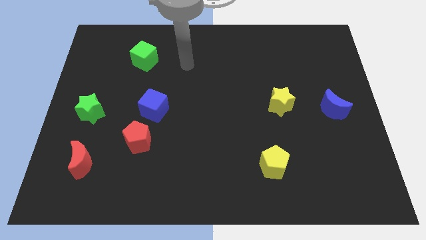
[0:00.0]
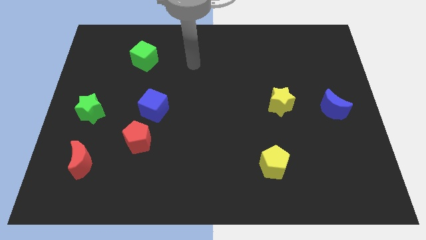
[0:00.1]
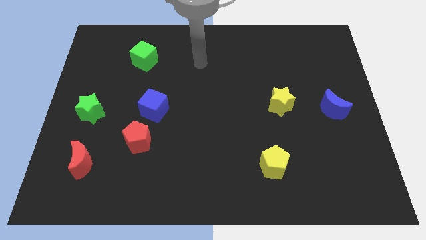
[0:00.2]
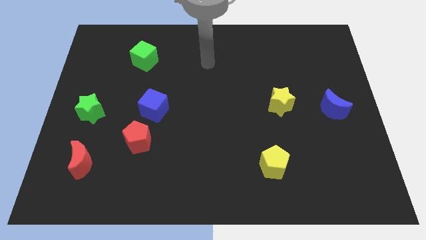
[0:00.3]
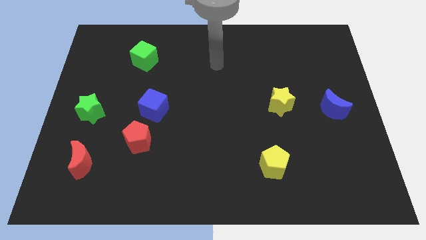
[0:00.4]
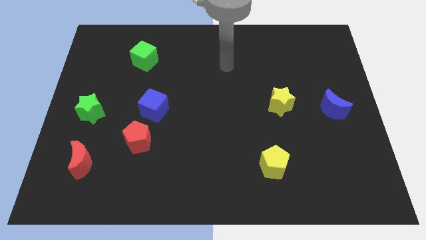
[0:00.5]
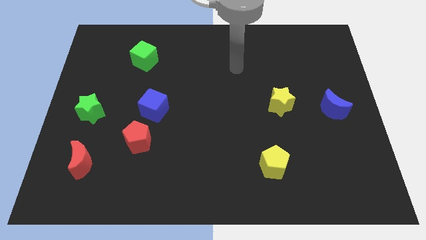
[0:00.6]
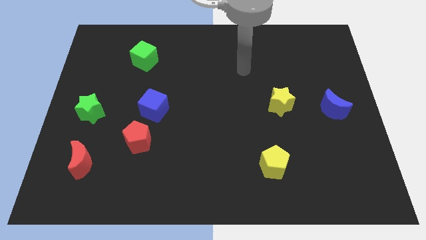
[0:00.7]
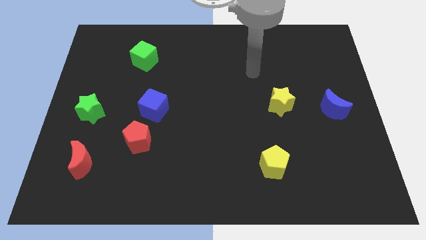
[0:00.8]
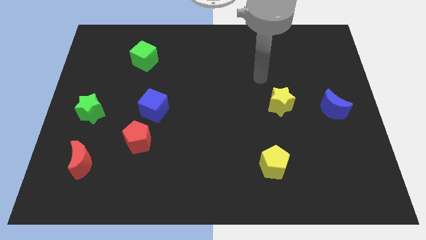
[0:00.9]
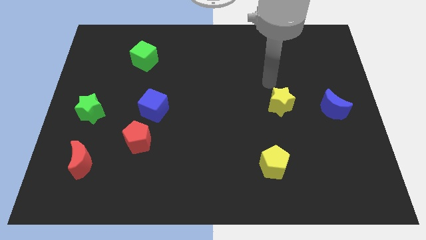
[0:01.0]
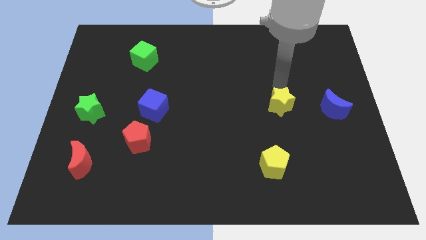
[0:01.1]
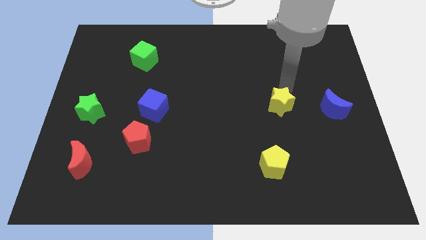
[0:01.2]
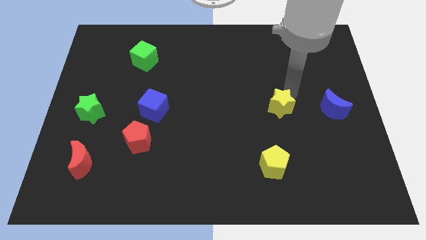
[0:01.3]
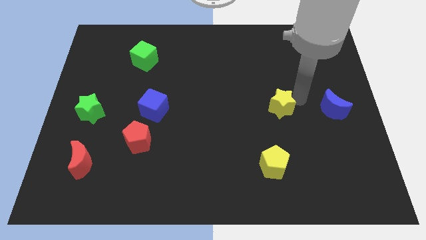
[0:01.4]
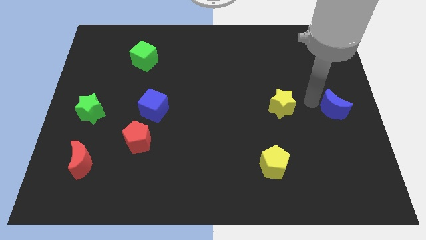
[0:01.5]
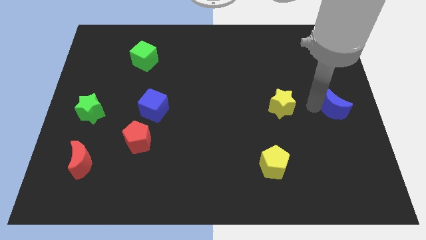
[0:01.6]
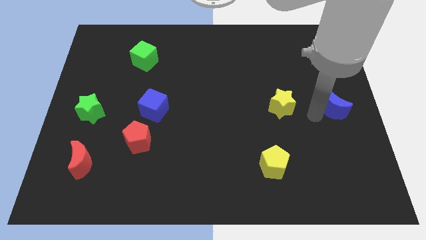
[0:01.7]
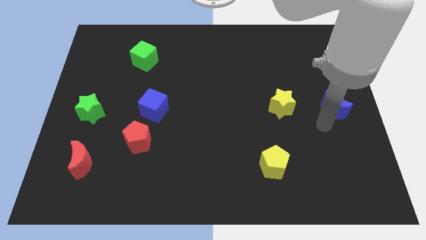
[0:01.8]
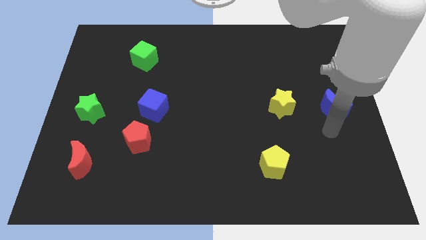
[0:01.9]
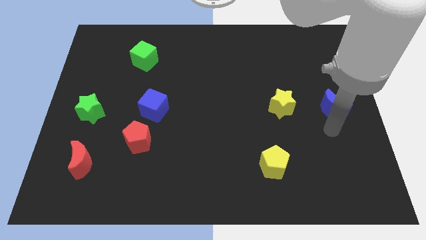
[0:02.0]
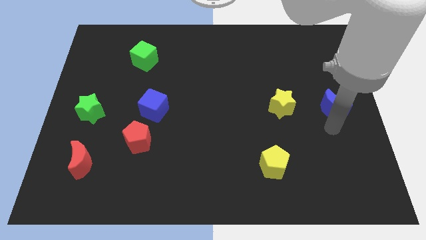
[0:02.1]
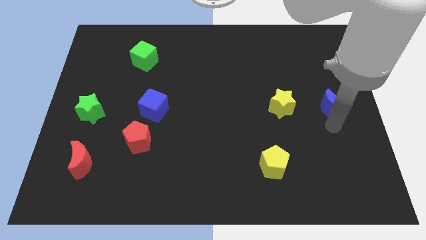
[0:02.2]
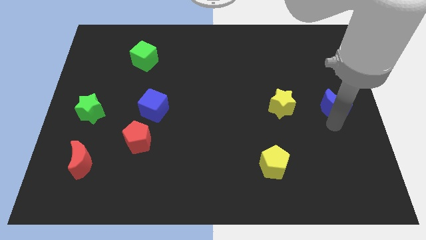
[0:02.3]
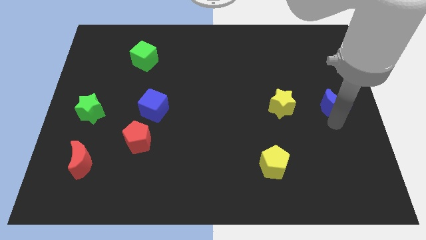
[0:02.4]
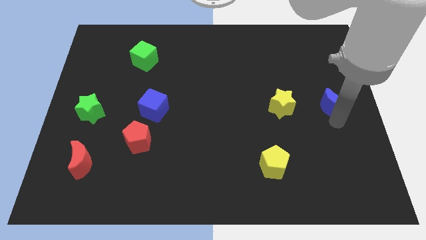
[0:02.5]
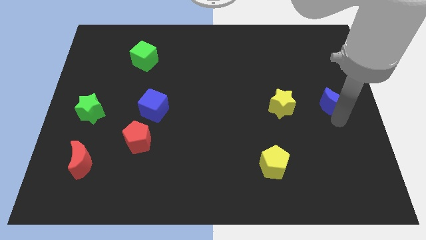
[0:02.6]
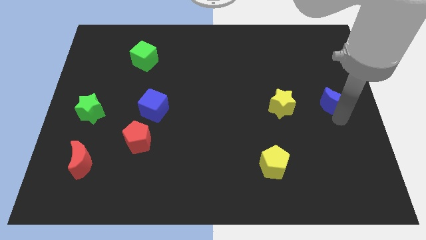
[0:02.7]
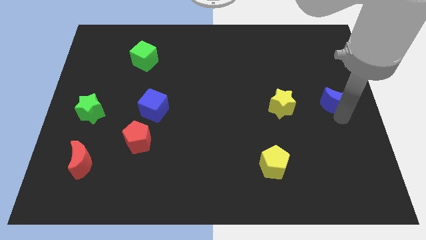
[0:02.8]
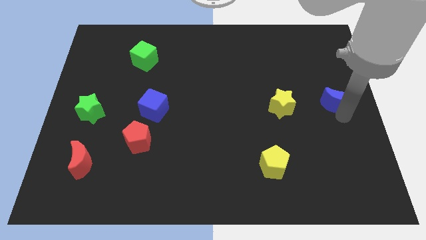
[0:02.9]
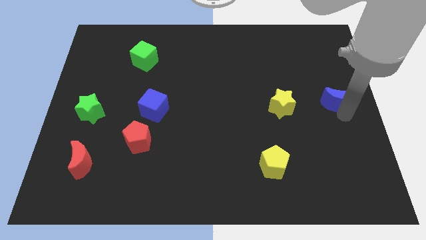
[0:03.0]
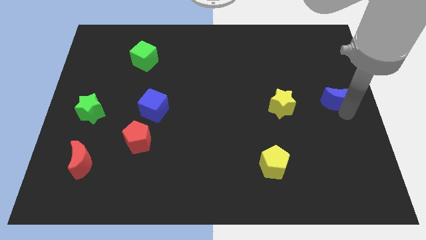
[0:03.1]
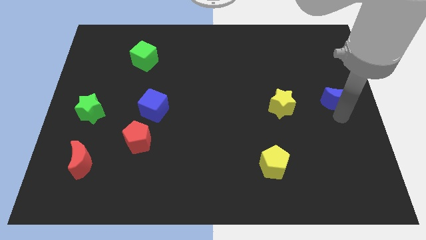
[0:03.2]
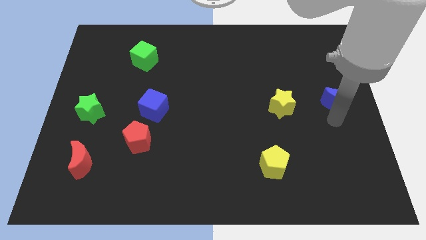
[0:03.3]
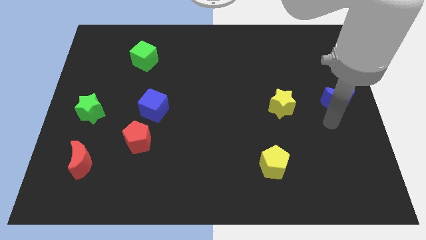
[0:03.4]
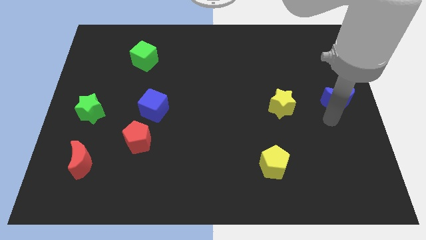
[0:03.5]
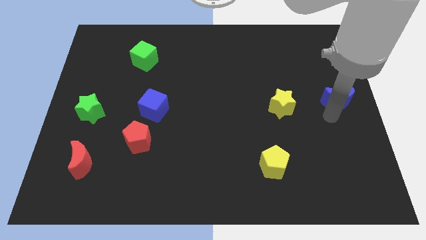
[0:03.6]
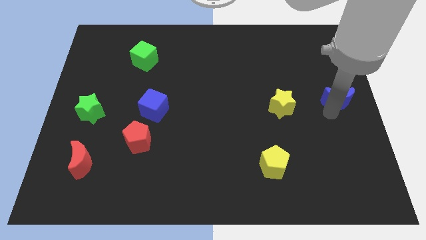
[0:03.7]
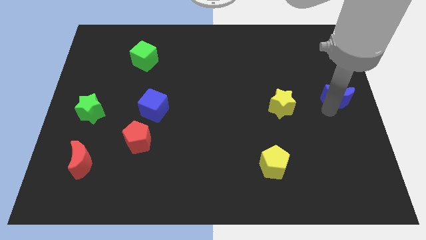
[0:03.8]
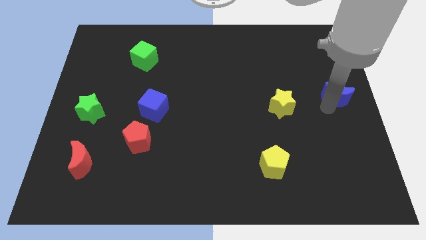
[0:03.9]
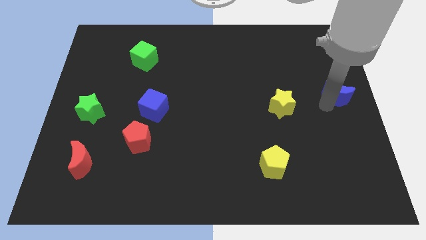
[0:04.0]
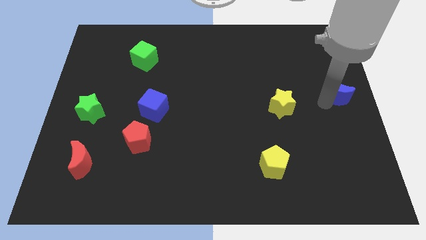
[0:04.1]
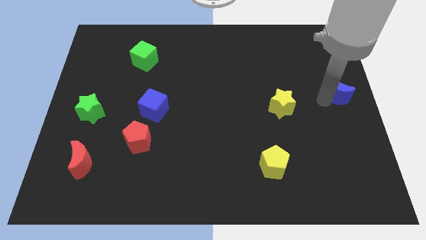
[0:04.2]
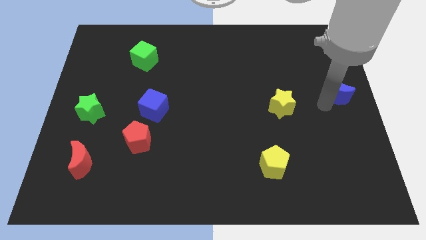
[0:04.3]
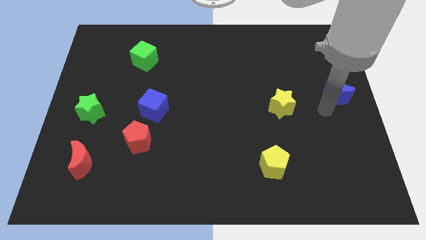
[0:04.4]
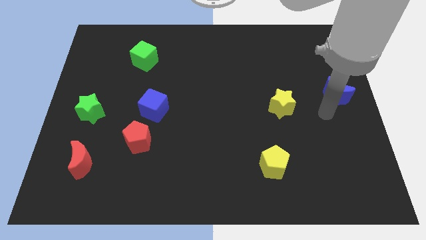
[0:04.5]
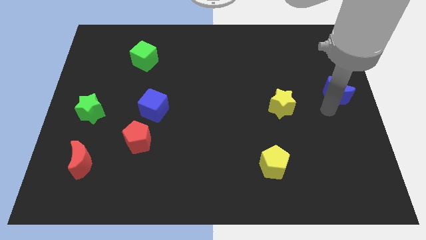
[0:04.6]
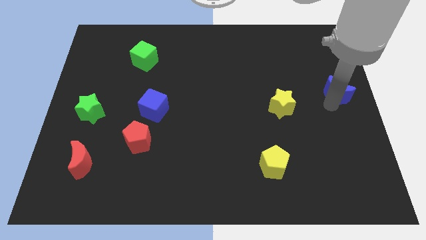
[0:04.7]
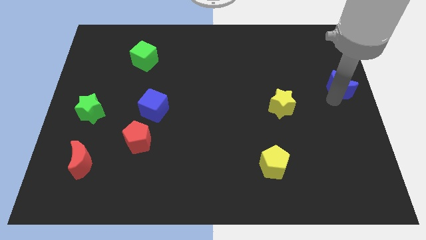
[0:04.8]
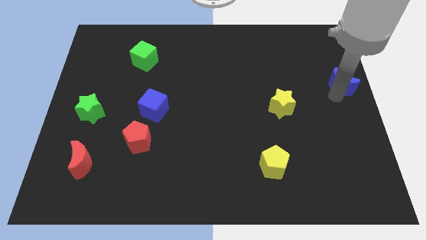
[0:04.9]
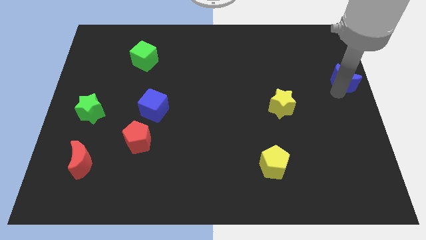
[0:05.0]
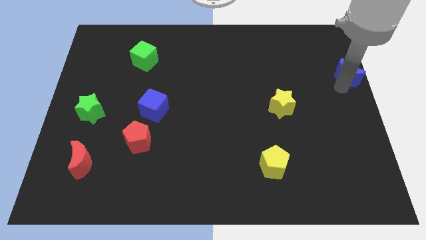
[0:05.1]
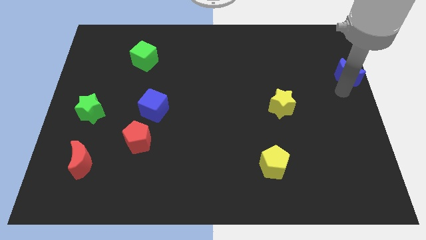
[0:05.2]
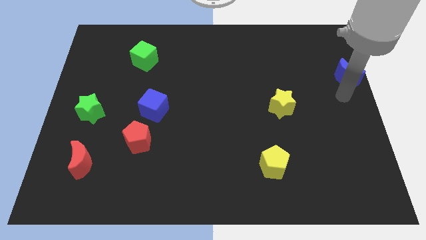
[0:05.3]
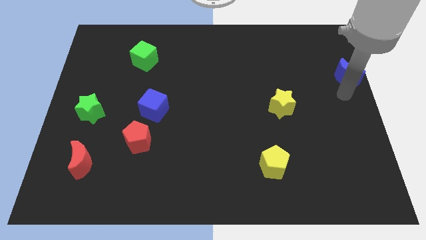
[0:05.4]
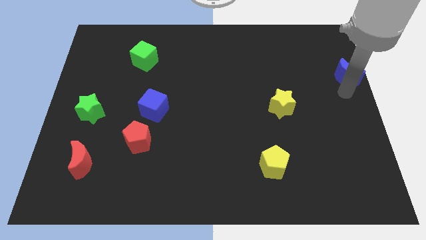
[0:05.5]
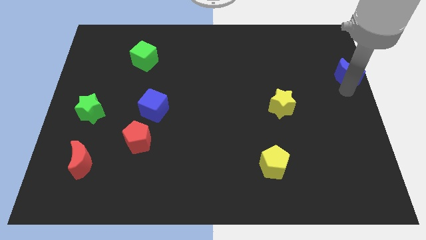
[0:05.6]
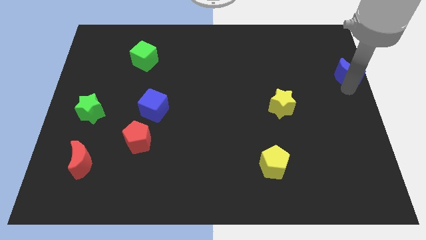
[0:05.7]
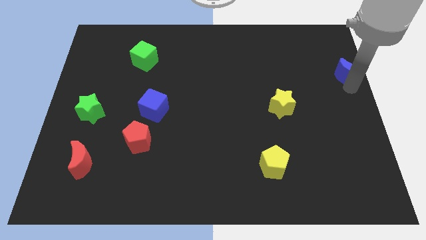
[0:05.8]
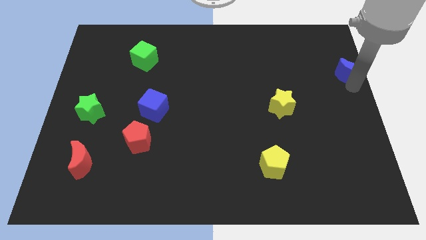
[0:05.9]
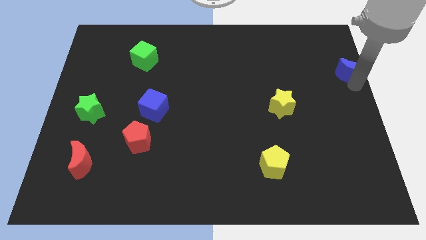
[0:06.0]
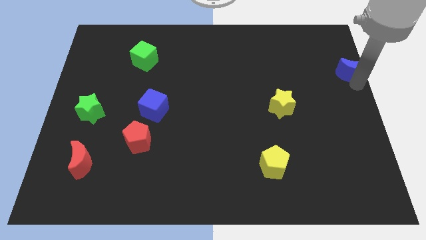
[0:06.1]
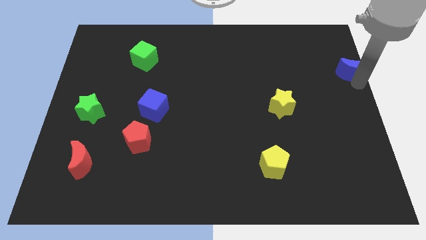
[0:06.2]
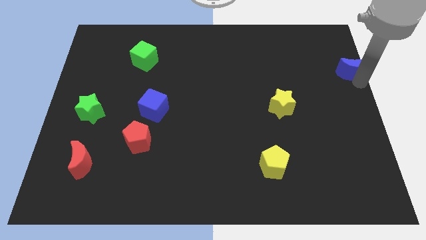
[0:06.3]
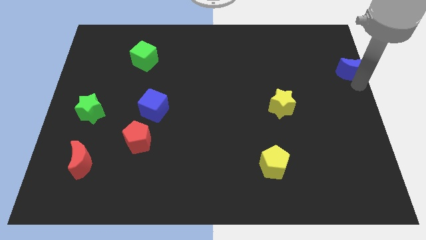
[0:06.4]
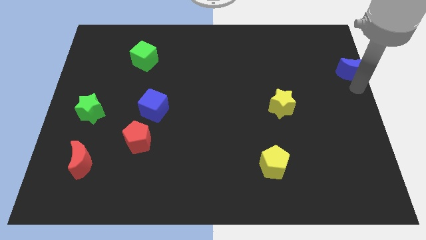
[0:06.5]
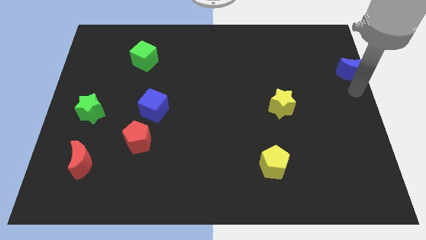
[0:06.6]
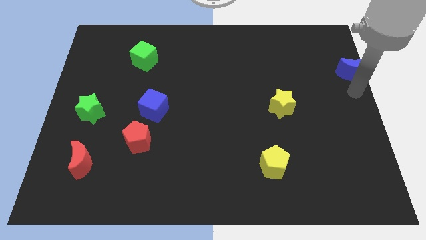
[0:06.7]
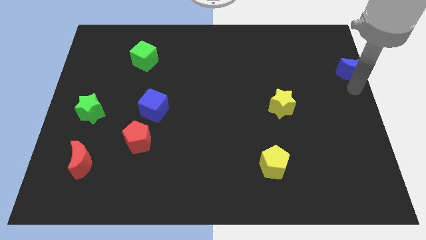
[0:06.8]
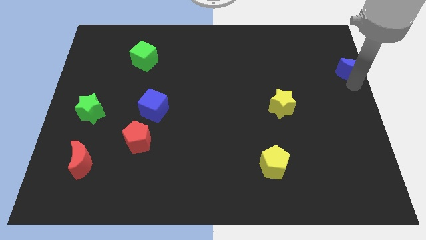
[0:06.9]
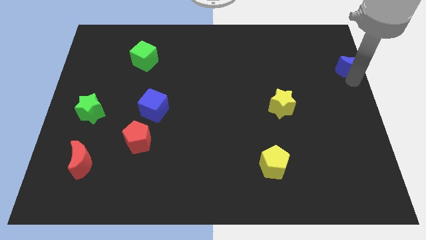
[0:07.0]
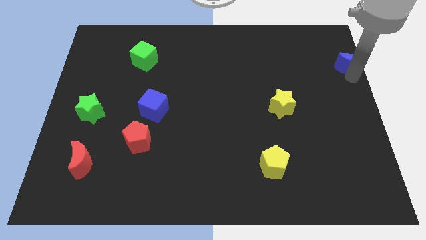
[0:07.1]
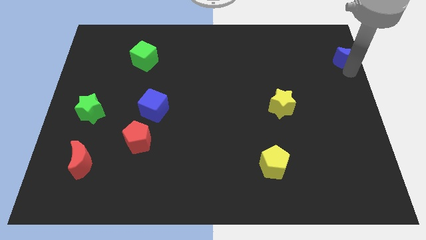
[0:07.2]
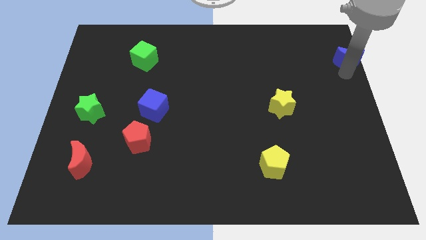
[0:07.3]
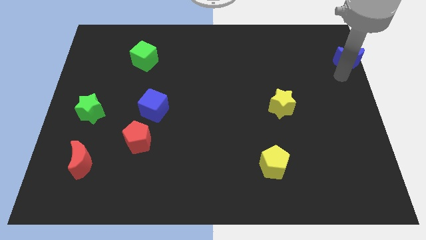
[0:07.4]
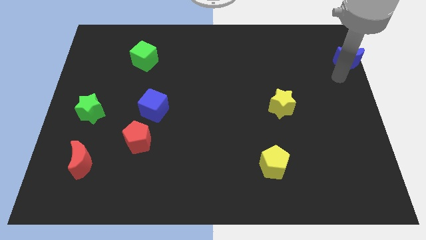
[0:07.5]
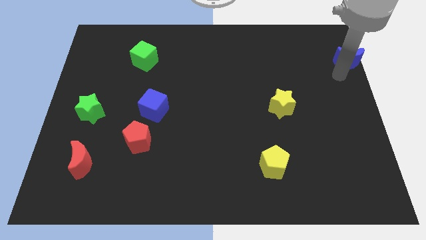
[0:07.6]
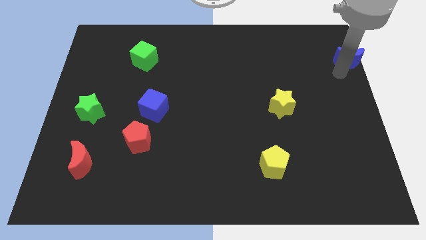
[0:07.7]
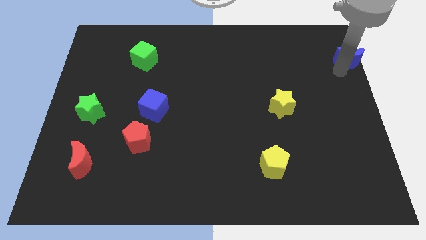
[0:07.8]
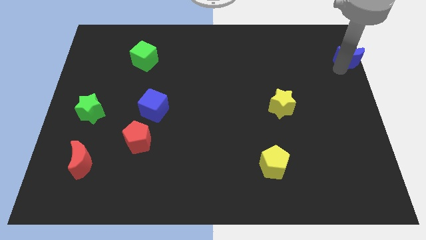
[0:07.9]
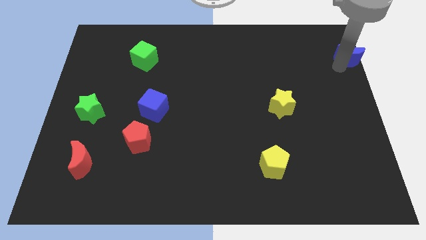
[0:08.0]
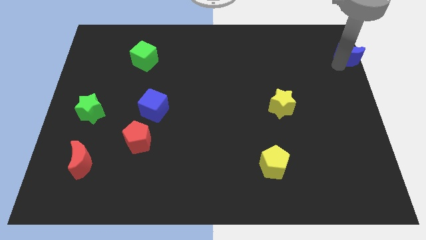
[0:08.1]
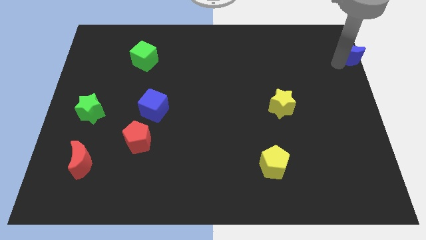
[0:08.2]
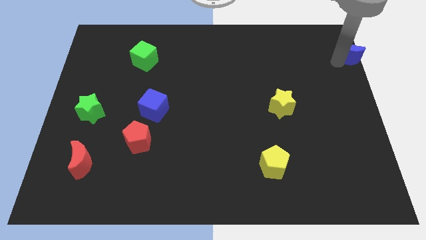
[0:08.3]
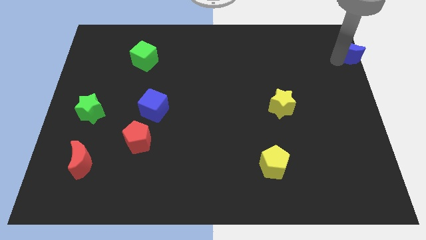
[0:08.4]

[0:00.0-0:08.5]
put the blue moon to the top right corner
